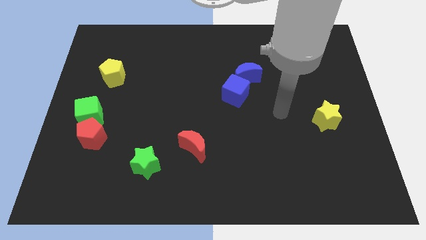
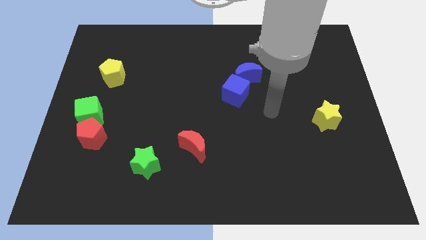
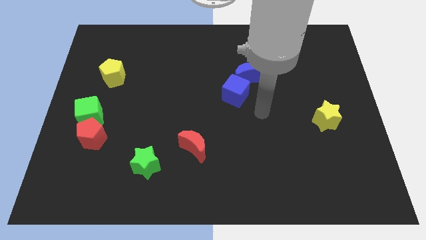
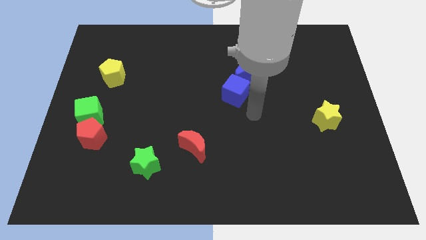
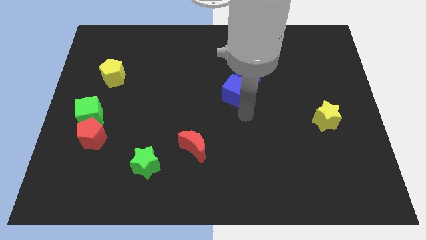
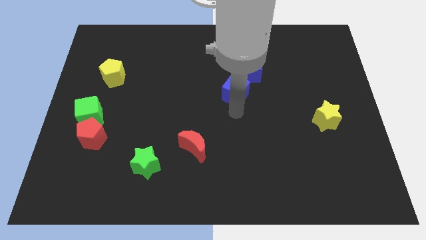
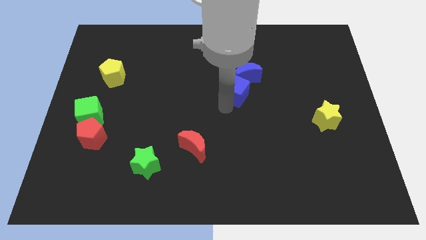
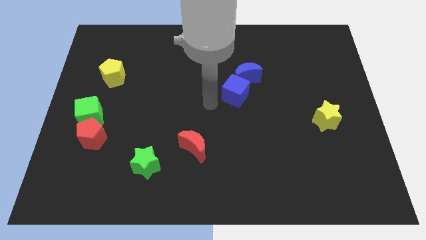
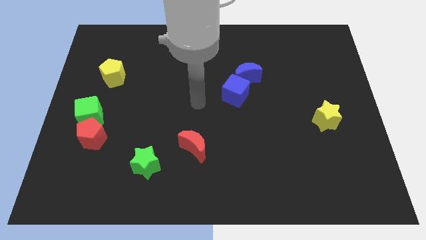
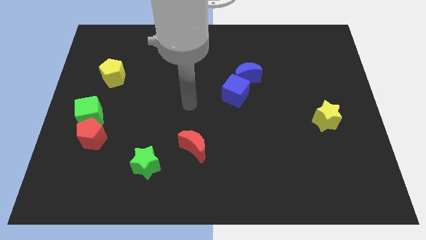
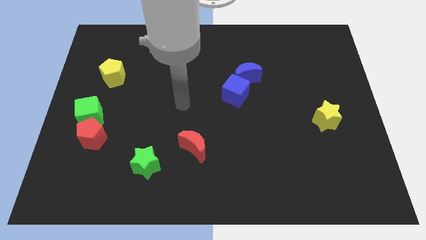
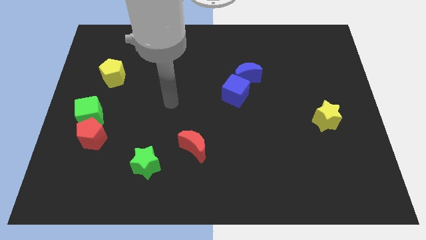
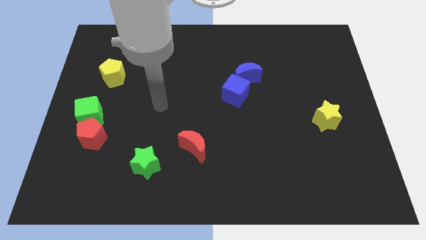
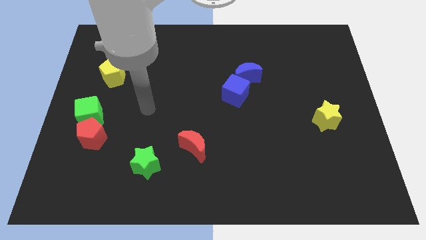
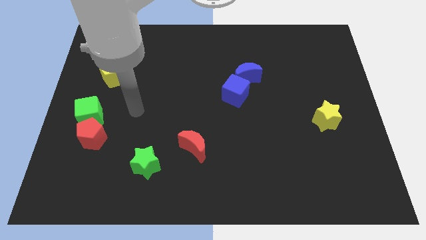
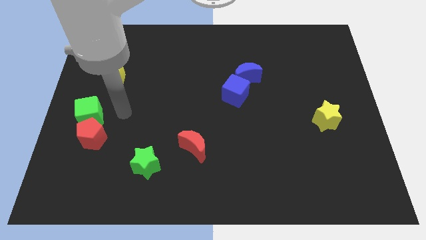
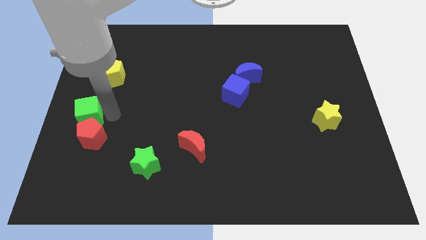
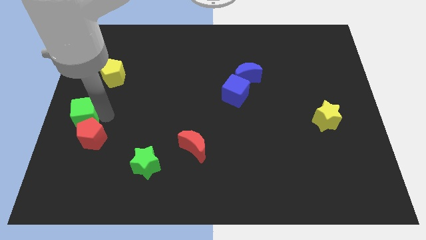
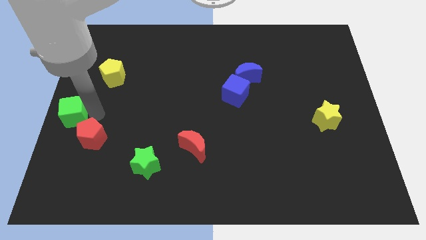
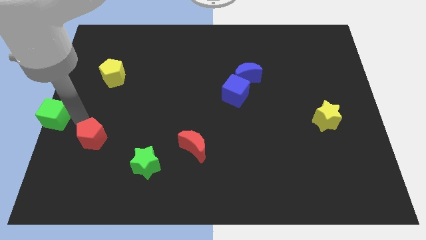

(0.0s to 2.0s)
separate the red pentagon from the green cube

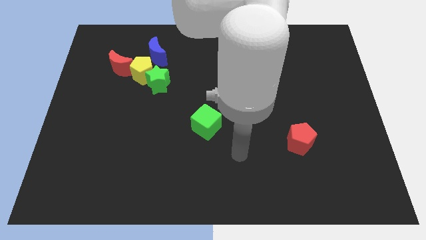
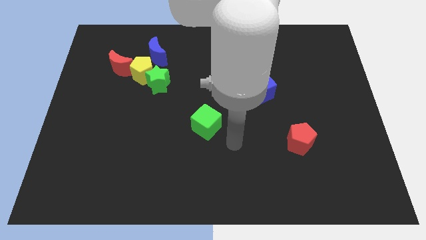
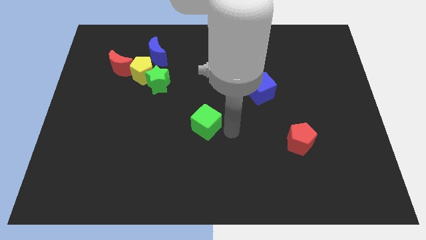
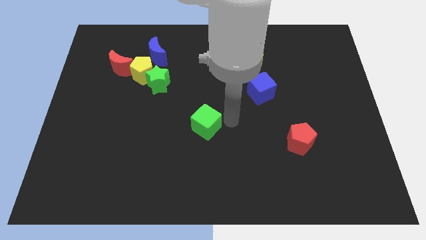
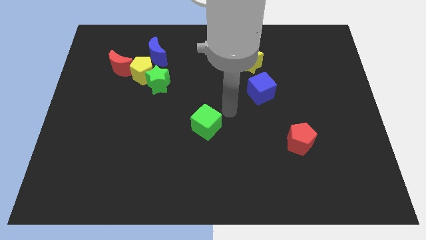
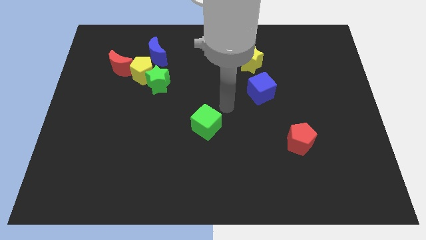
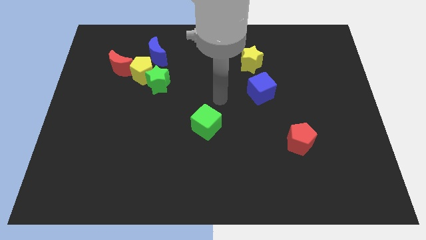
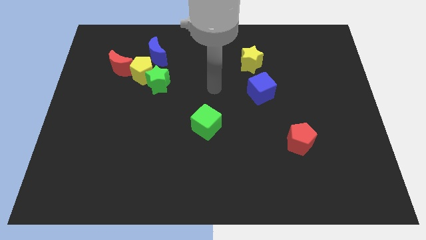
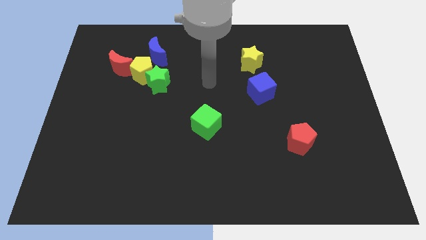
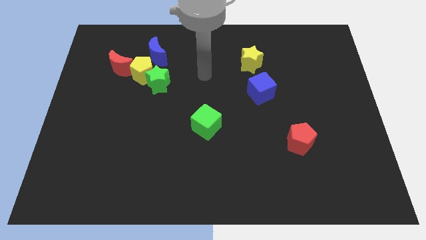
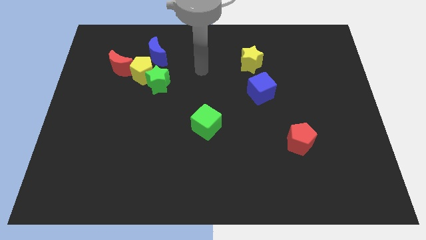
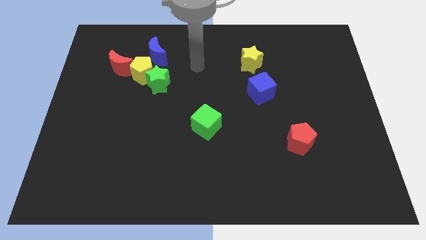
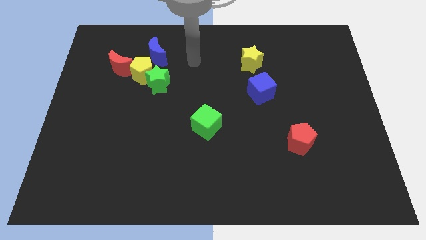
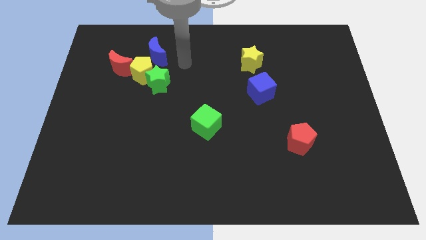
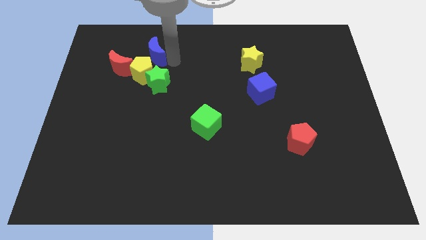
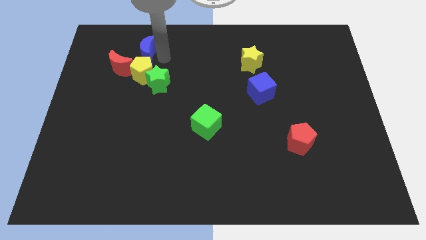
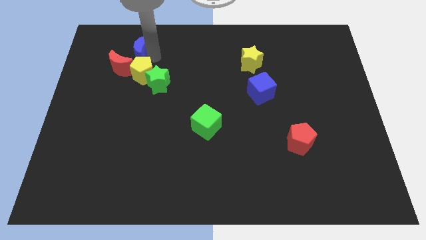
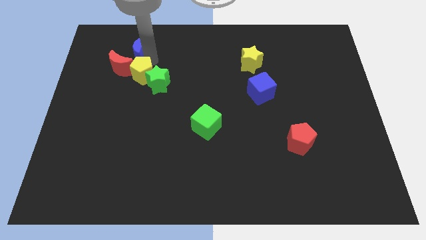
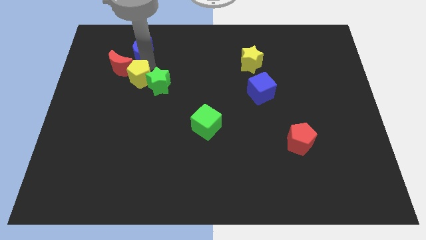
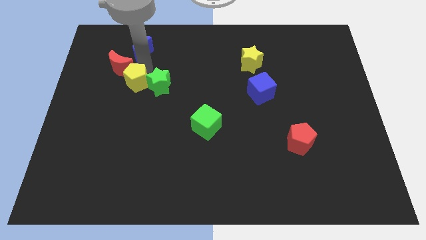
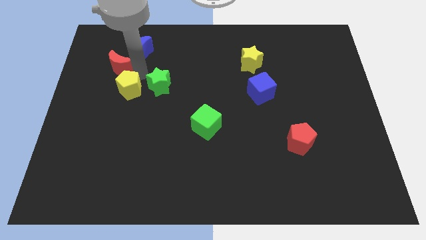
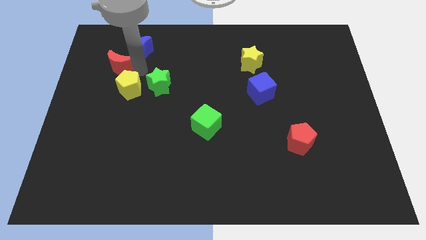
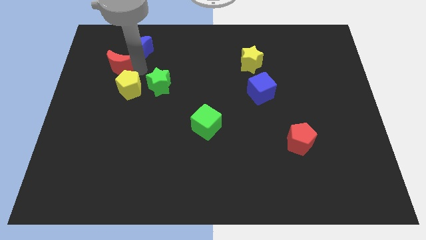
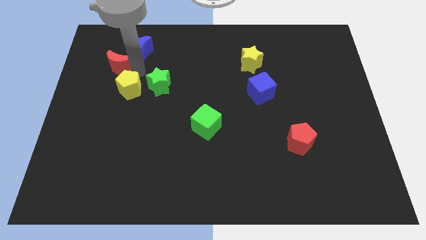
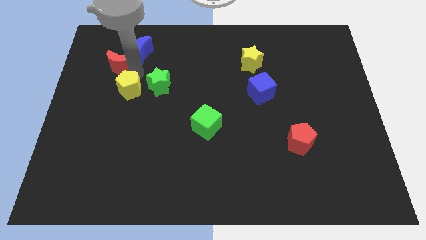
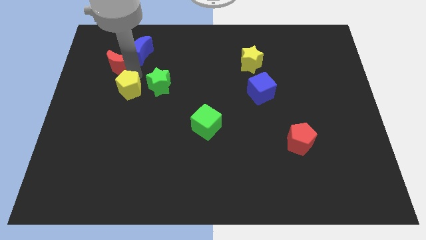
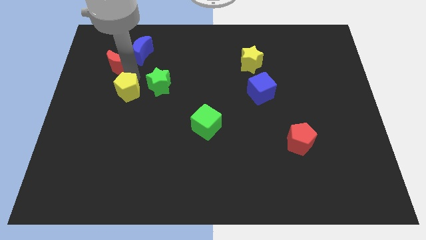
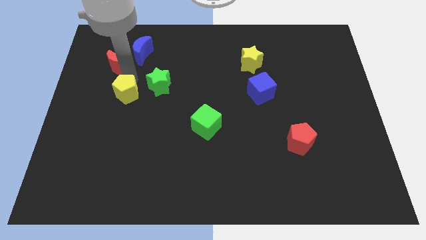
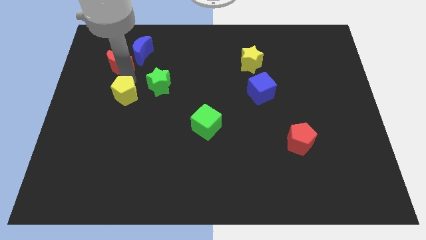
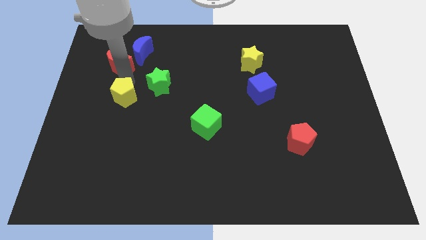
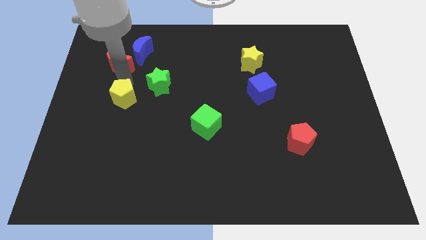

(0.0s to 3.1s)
pull the yellow pentagon apart from the group of blocks

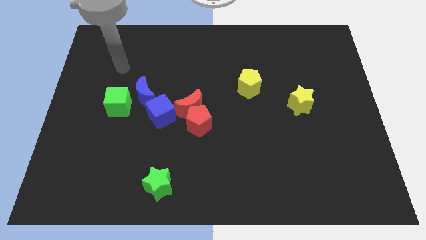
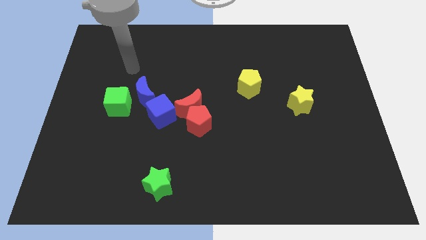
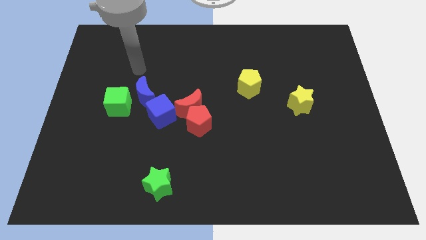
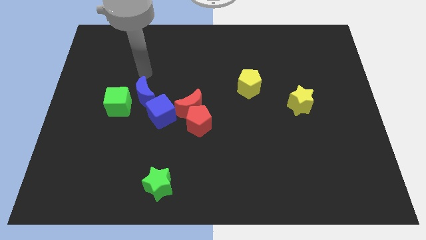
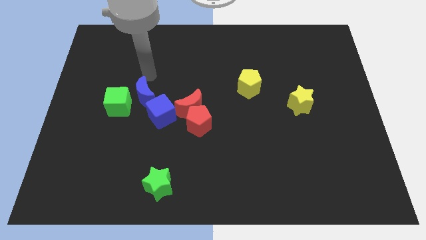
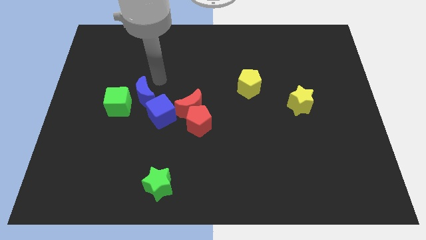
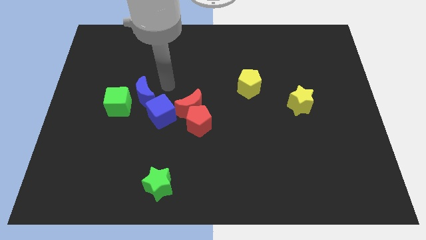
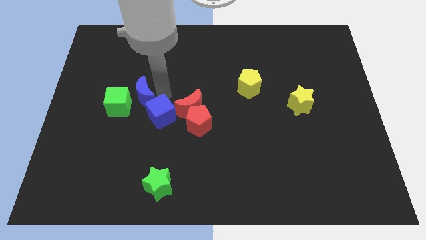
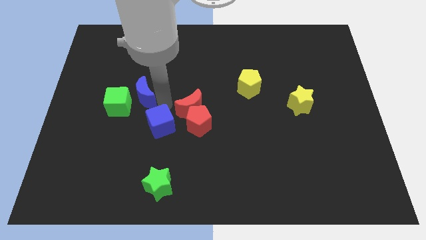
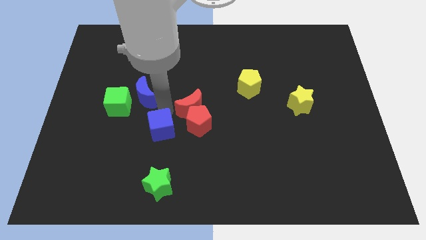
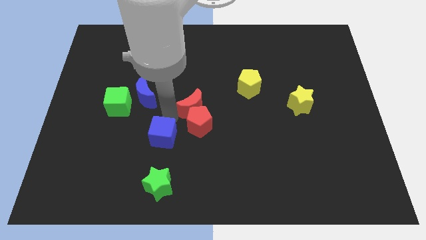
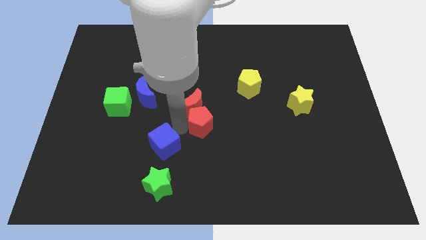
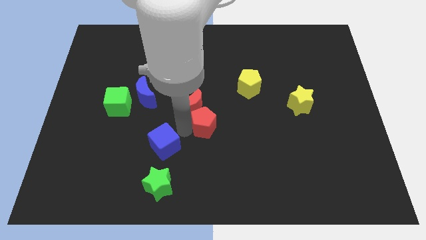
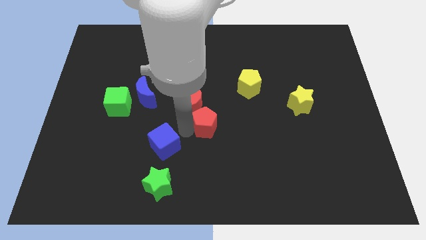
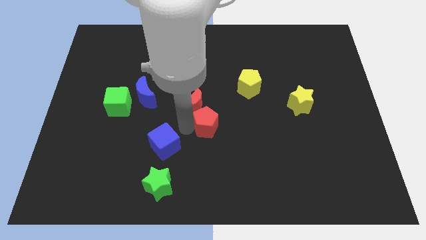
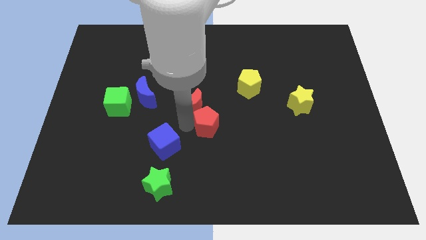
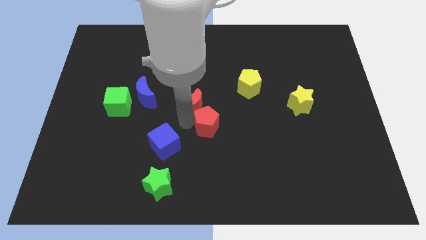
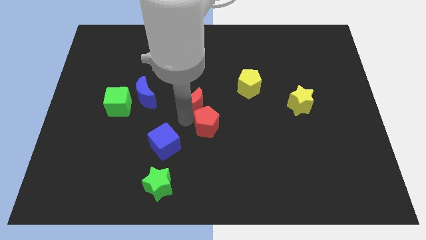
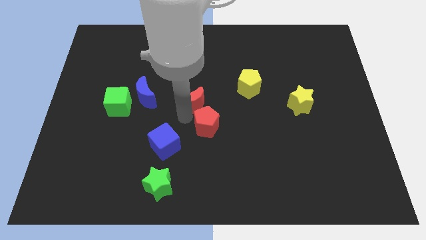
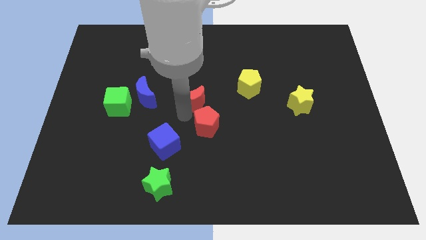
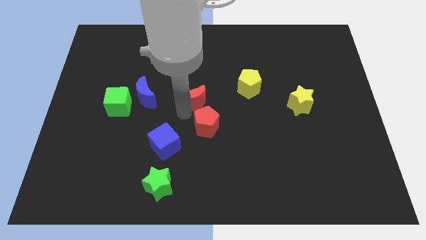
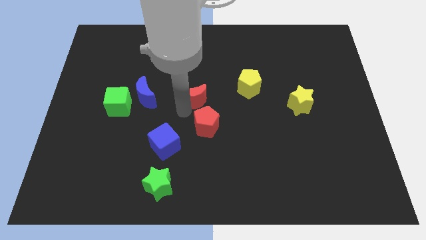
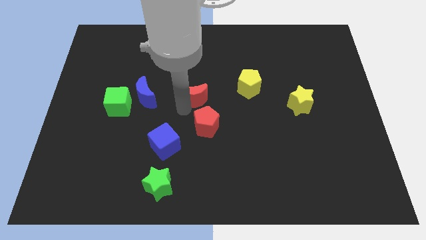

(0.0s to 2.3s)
move the red moon away from the red pentagon and blue cube

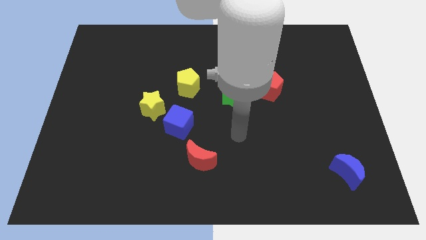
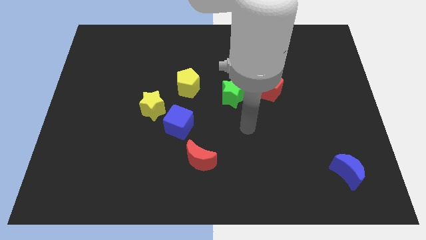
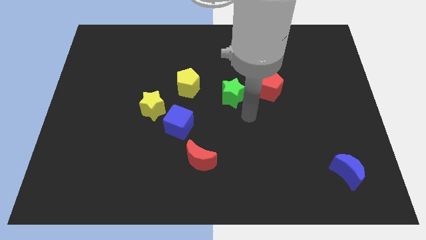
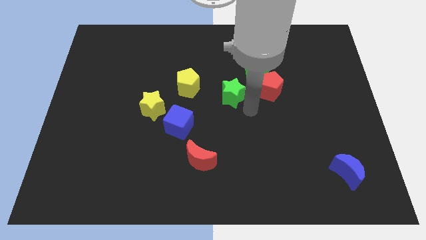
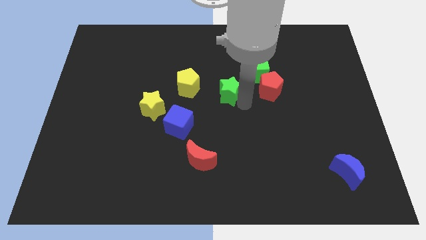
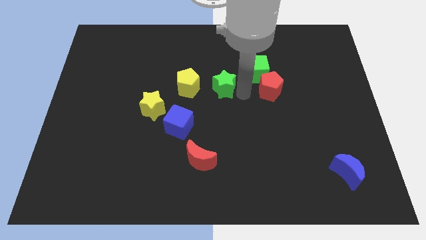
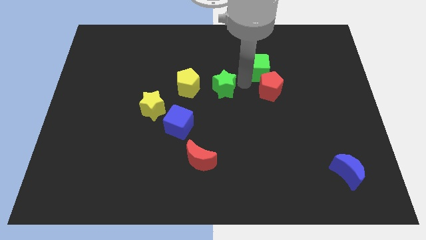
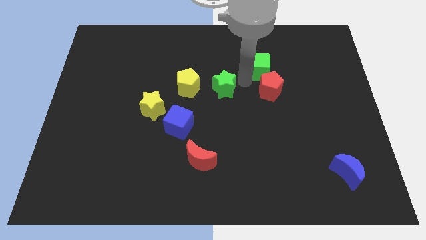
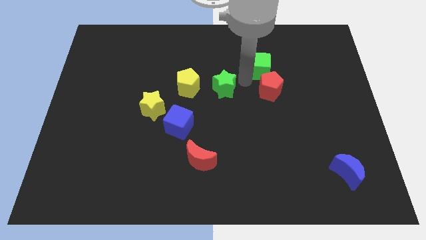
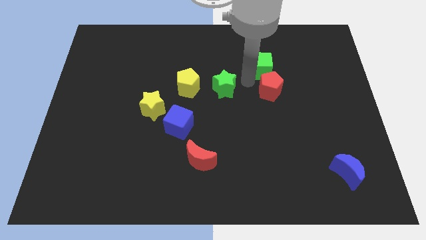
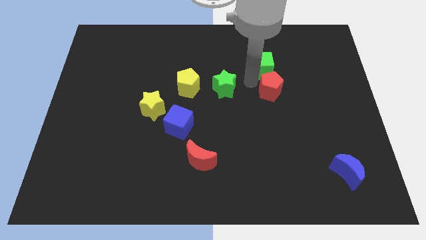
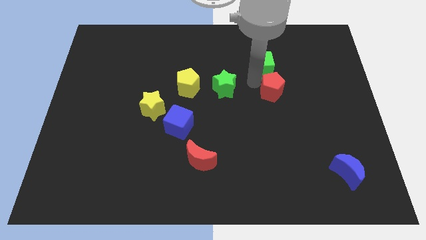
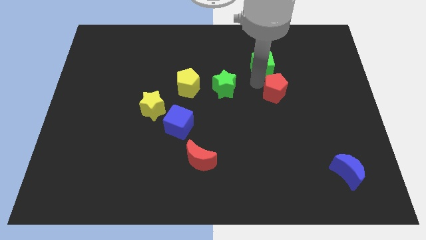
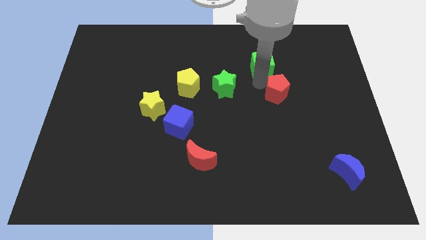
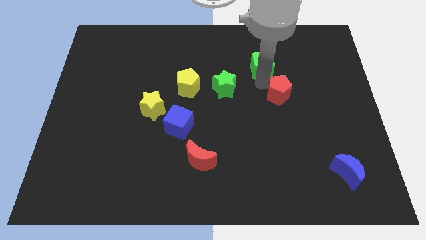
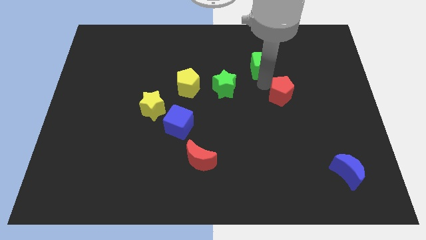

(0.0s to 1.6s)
move the red pentagon away from the green cube and green star

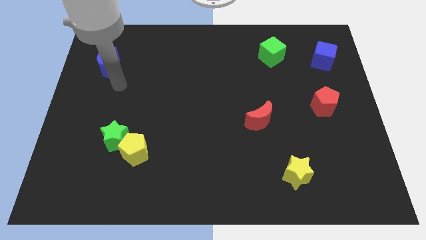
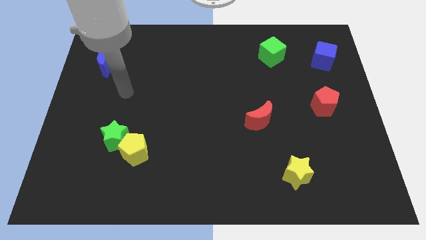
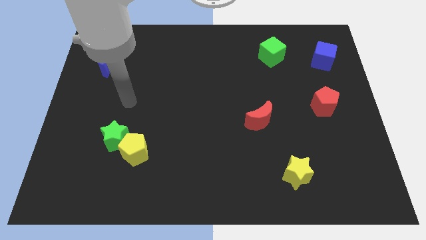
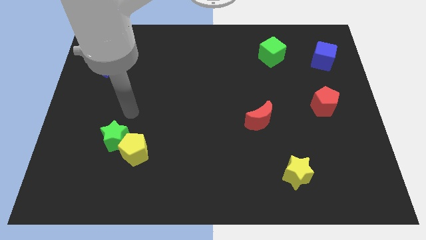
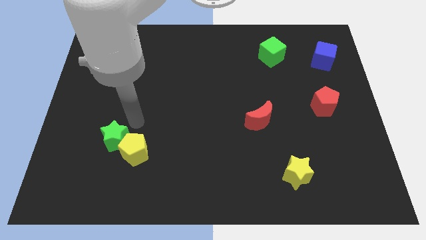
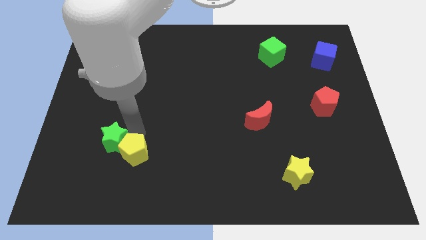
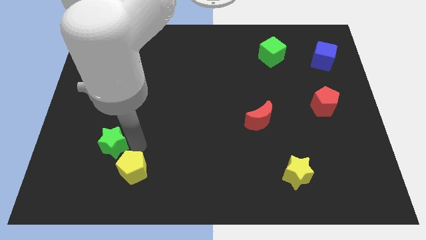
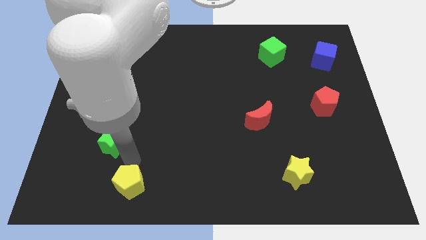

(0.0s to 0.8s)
separate the green star from the yellow pentagon
